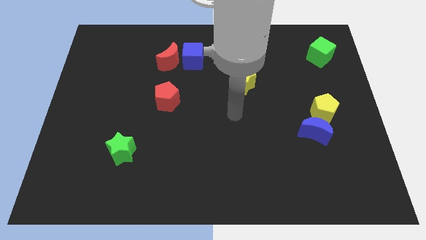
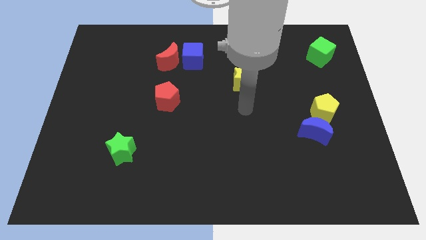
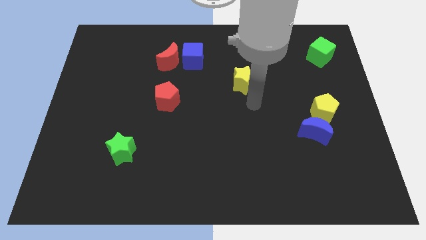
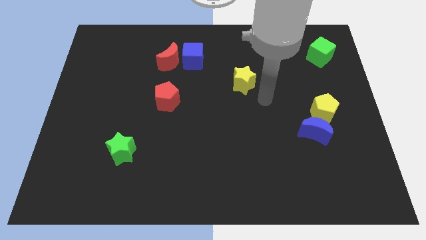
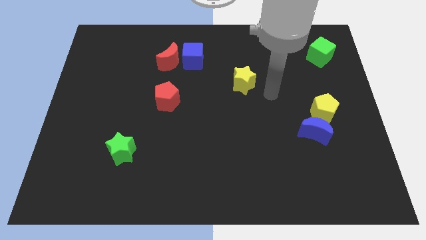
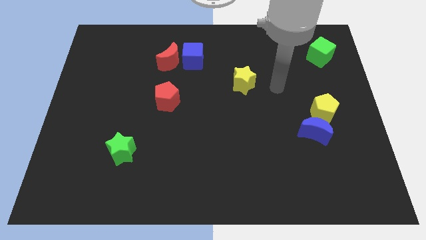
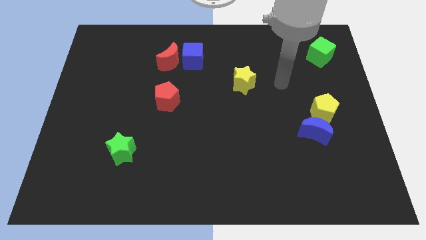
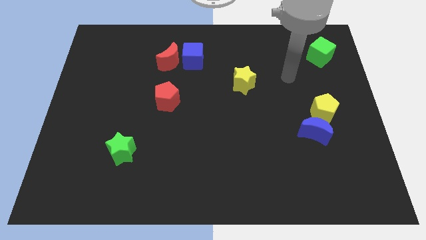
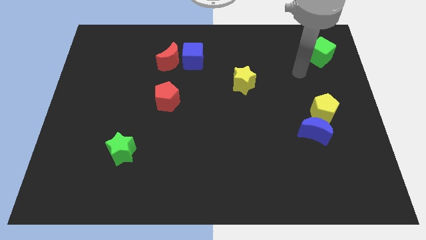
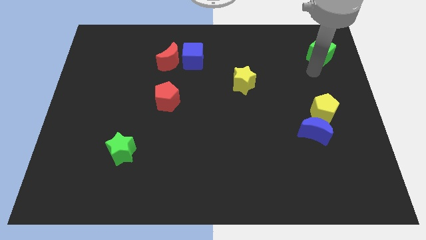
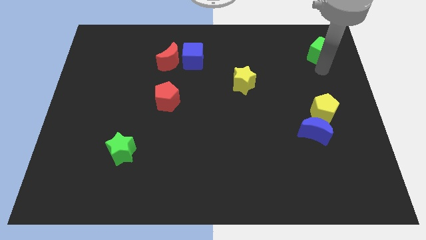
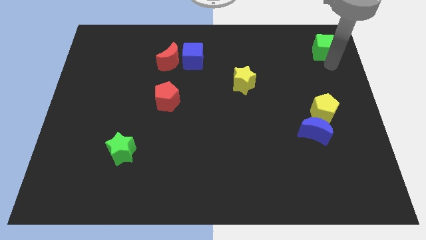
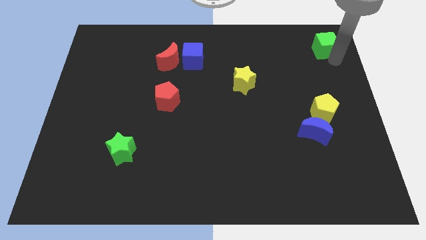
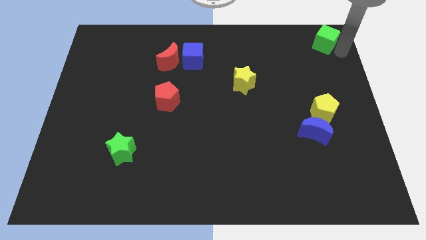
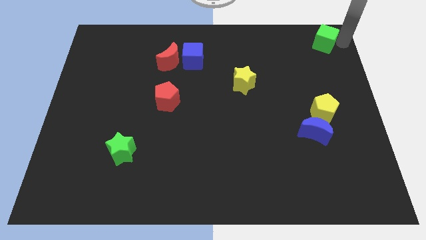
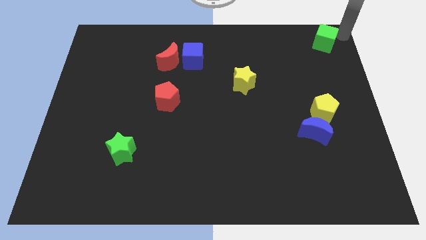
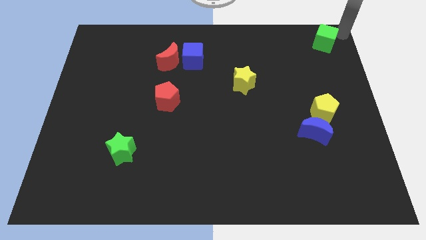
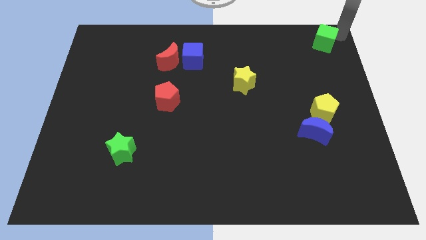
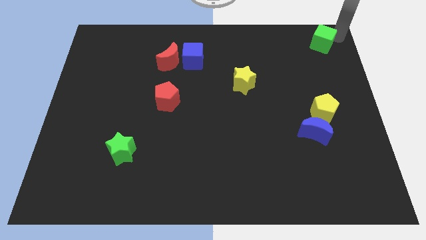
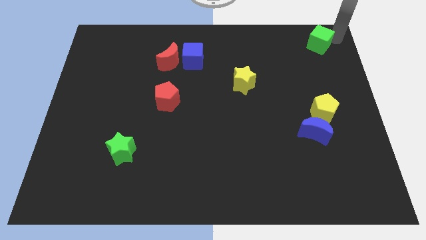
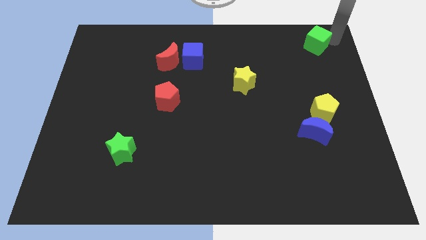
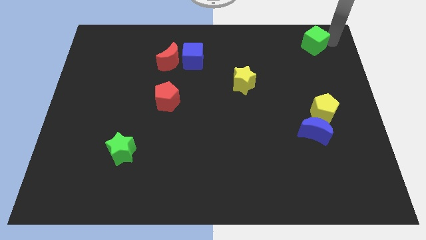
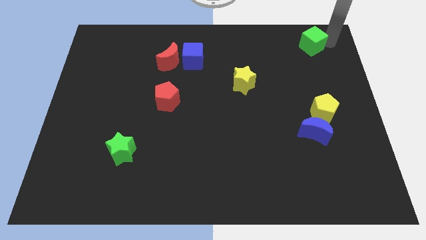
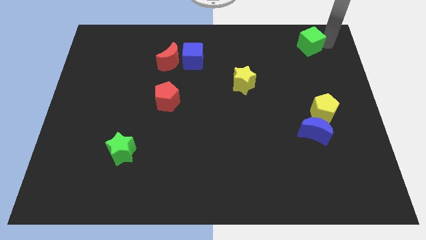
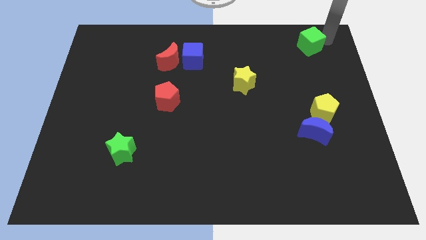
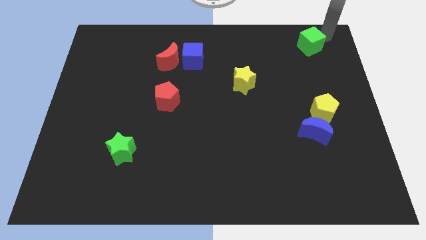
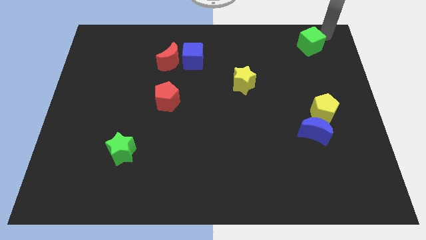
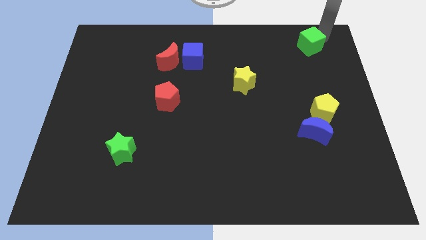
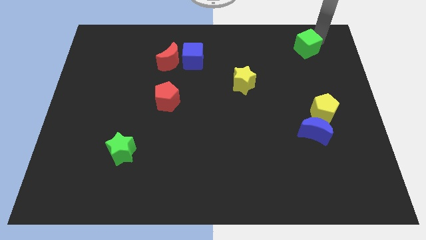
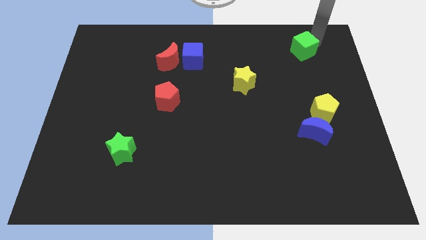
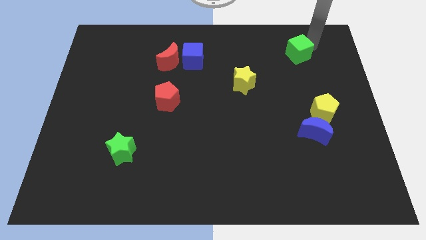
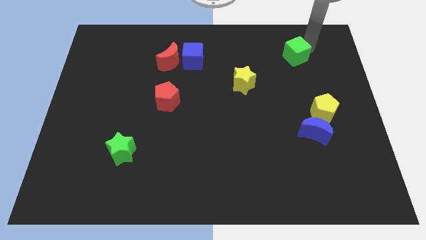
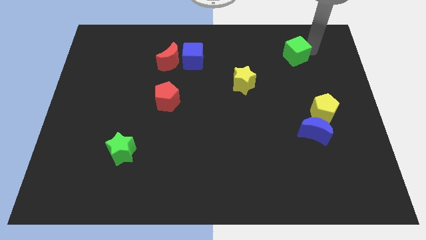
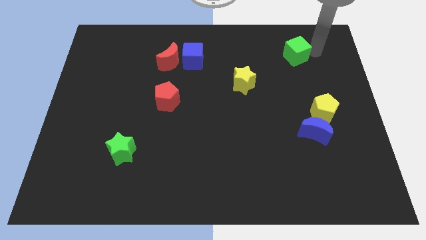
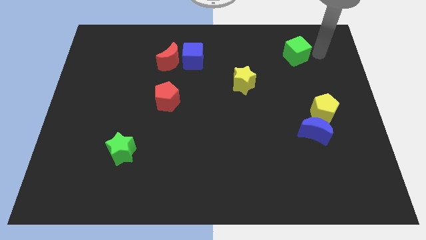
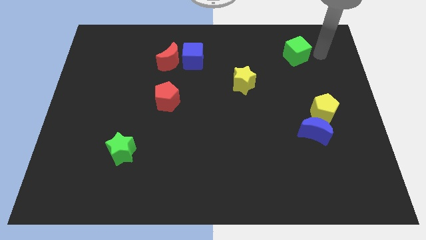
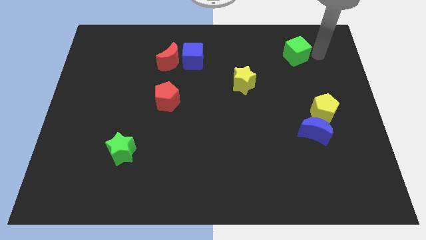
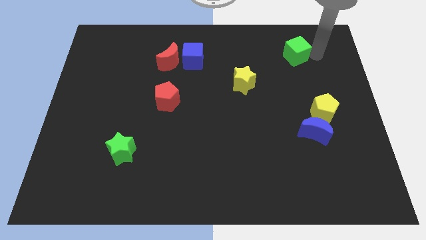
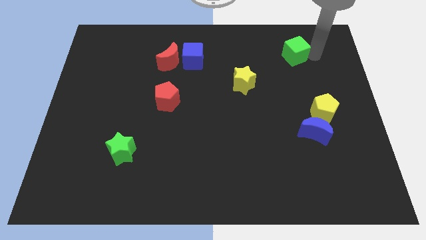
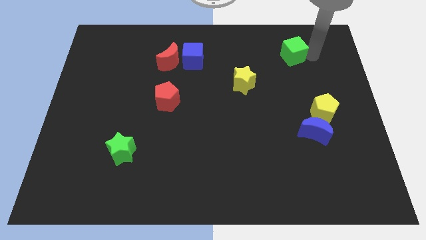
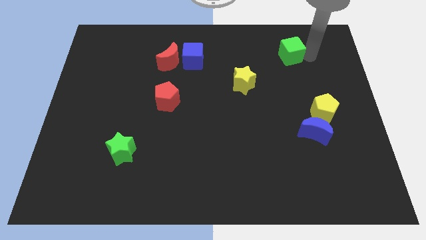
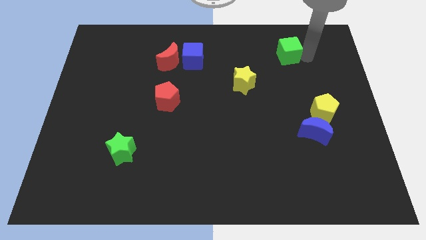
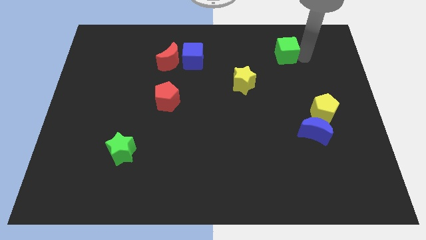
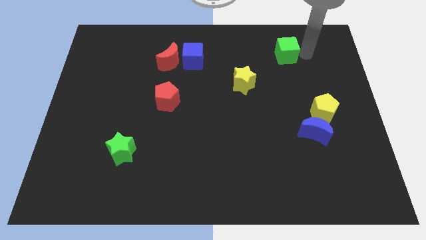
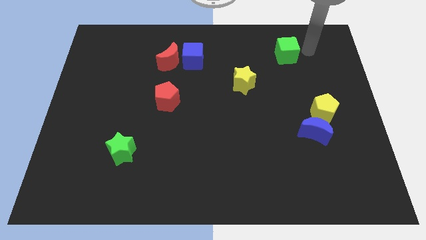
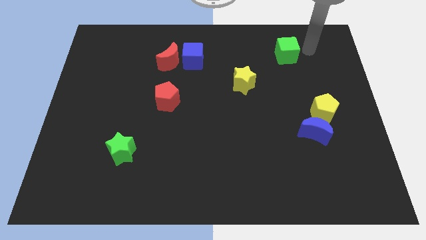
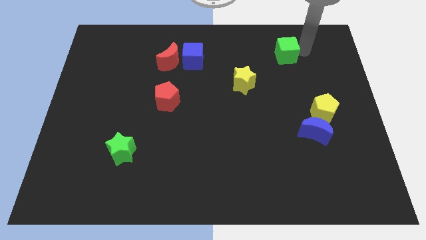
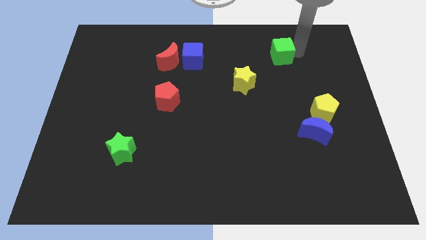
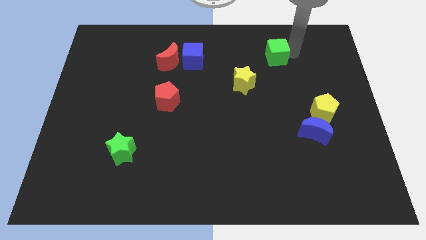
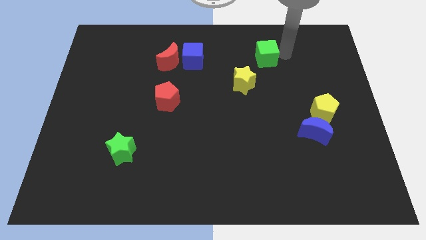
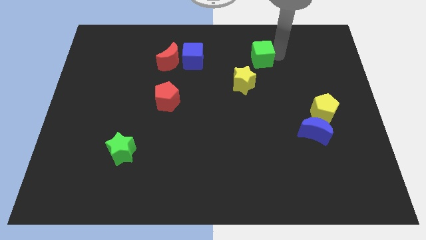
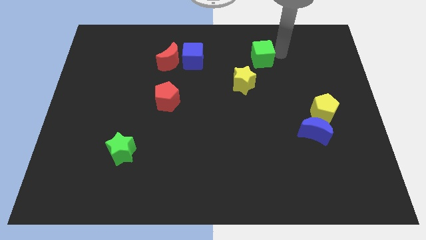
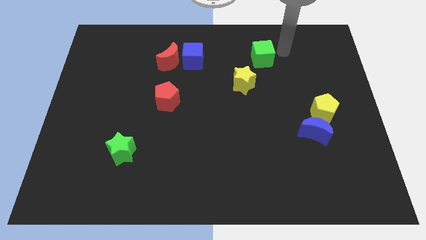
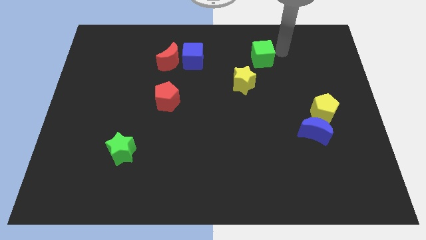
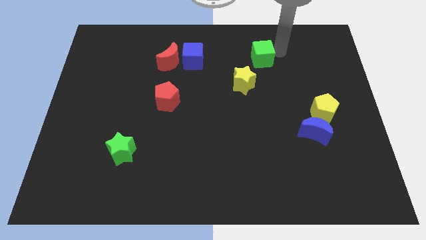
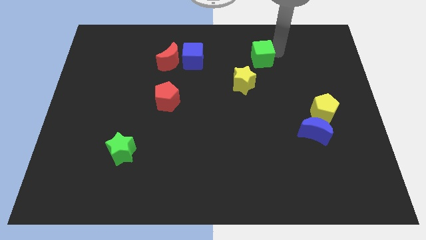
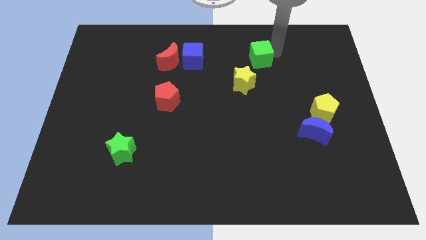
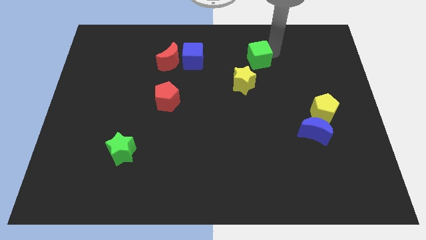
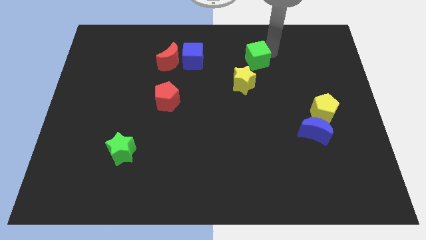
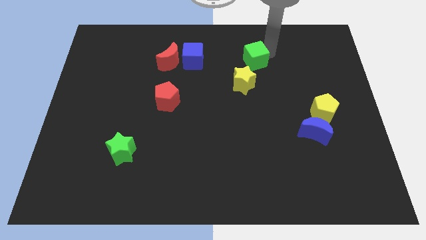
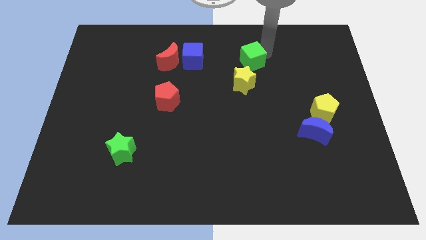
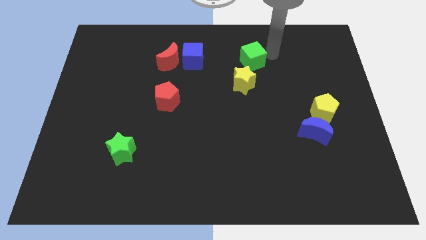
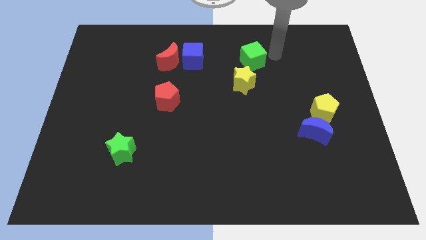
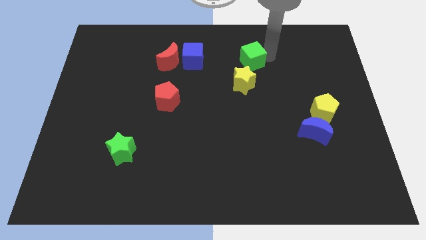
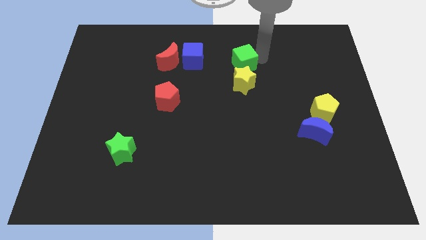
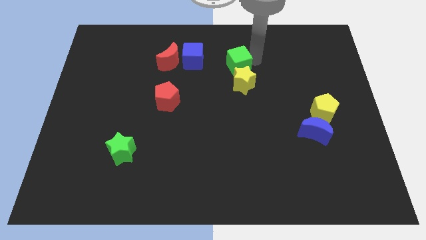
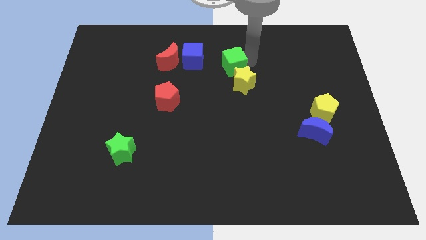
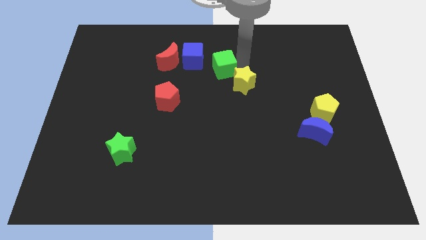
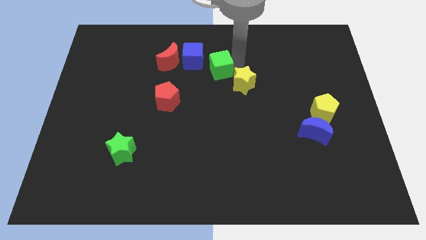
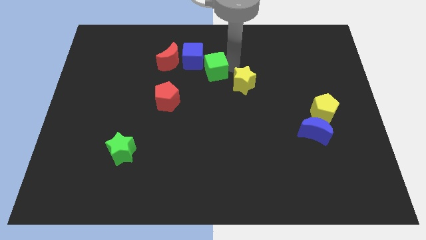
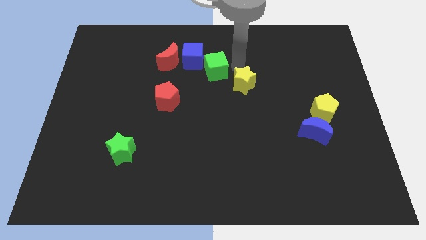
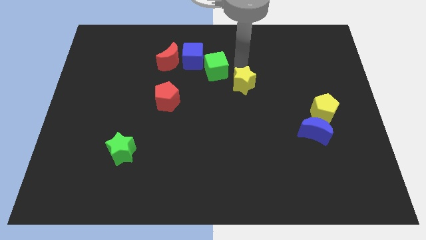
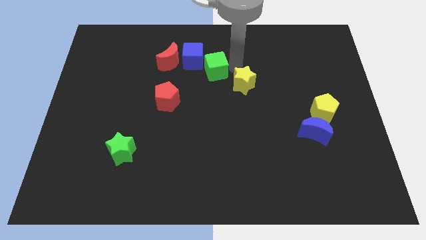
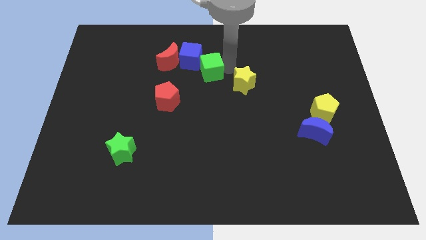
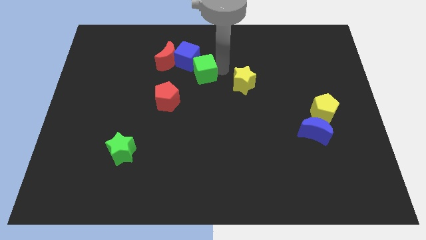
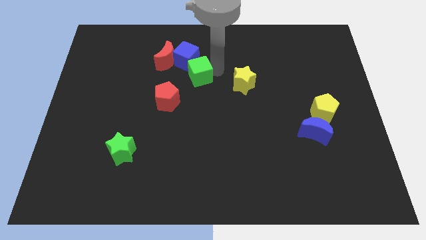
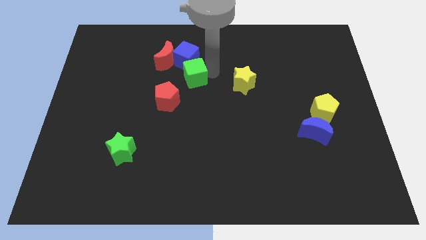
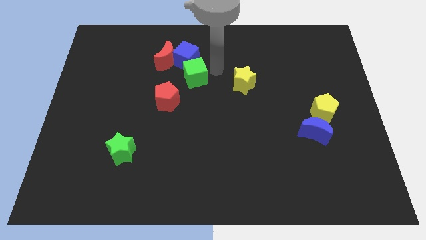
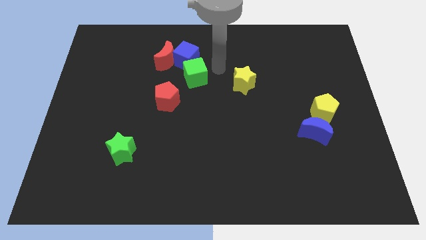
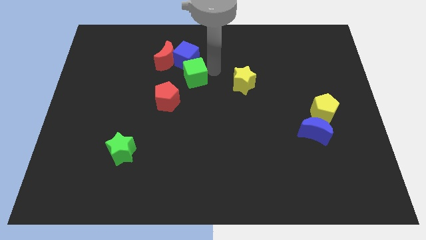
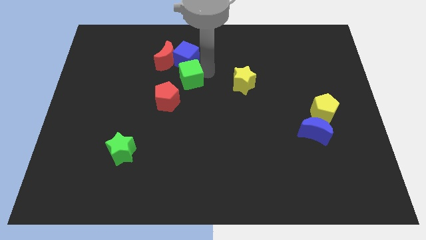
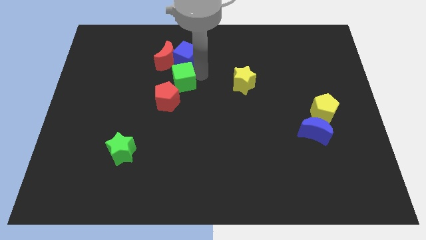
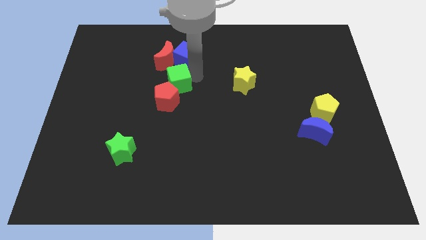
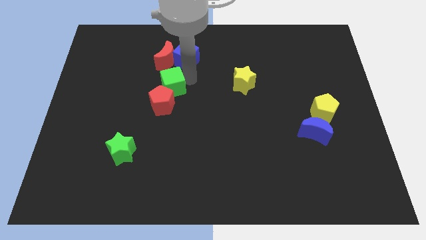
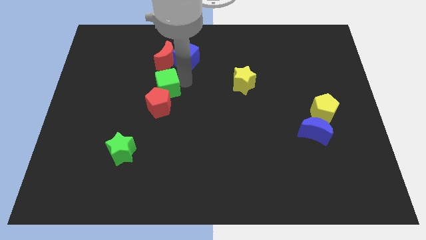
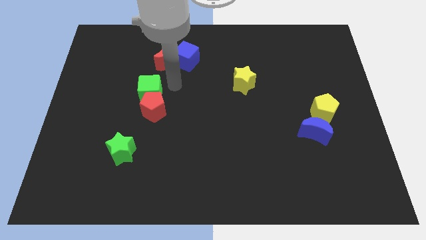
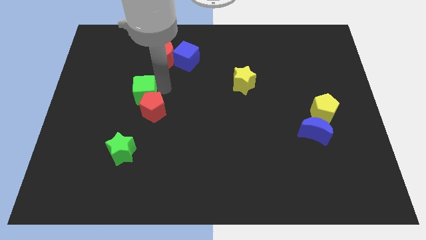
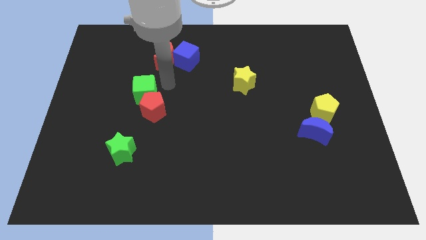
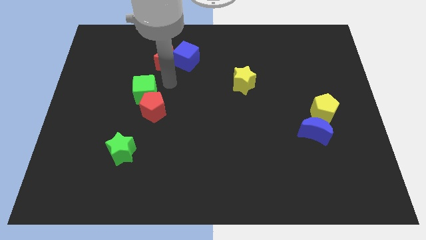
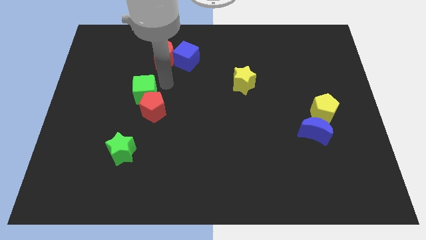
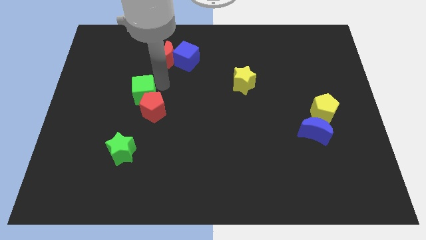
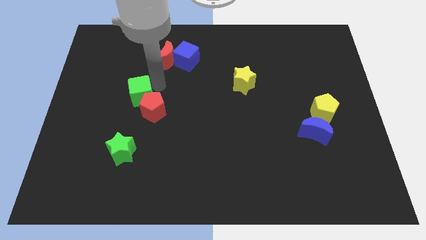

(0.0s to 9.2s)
push the green cube to the left side of the red pentagon
